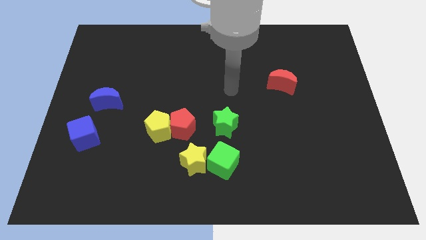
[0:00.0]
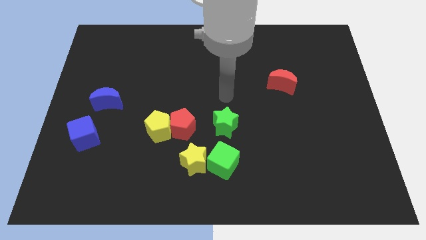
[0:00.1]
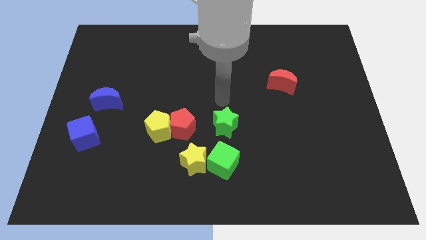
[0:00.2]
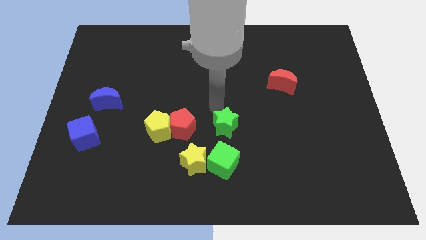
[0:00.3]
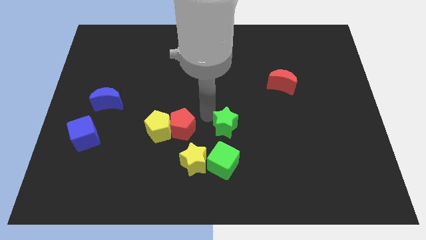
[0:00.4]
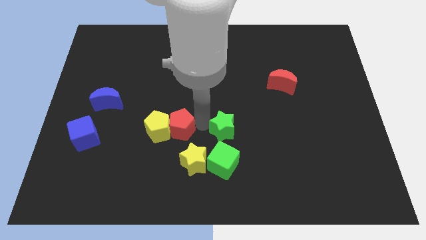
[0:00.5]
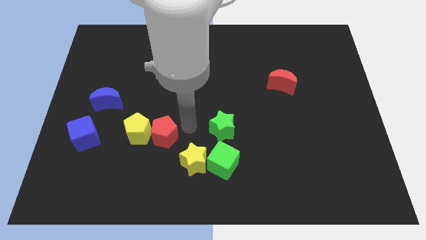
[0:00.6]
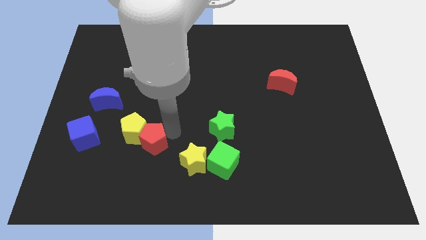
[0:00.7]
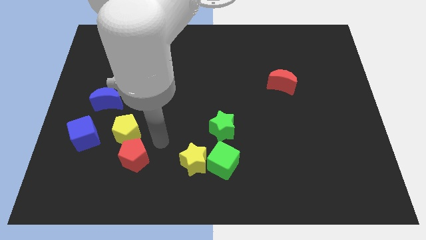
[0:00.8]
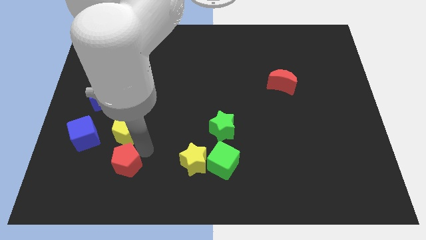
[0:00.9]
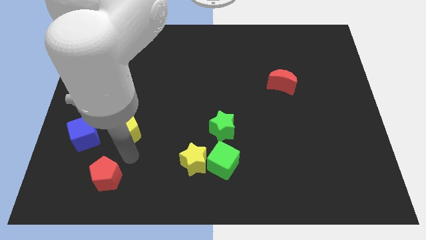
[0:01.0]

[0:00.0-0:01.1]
move the yellow pentagon away from the red pentagon

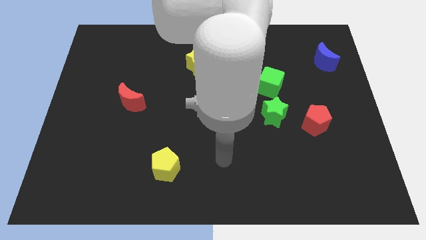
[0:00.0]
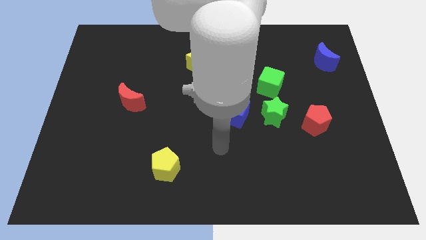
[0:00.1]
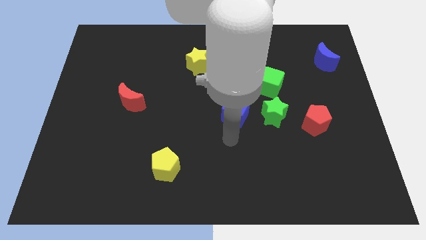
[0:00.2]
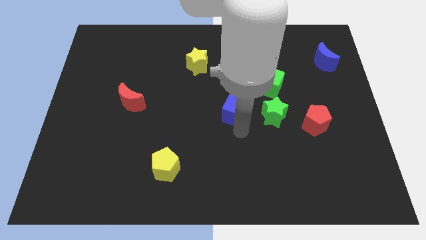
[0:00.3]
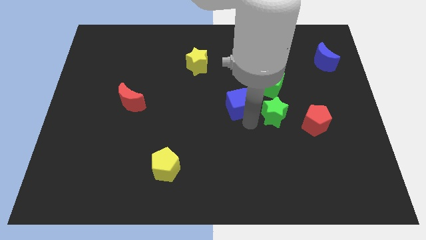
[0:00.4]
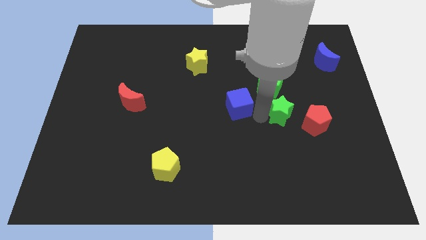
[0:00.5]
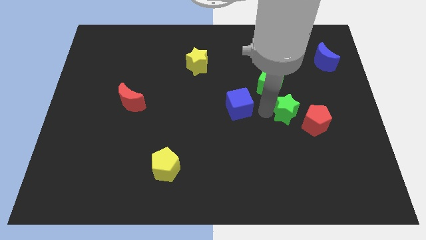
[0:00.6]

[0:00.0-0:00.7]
separate the blue cube from the green star

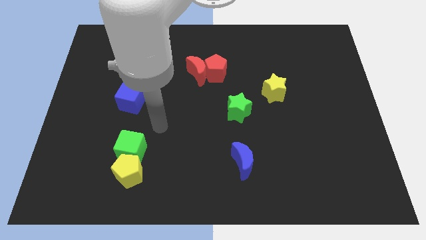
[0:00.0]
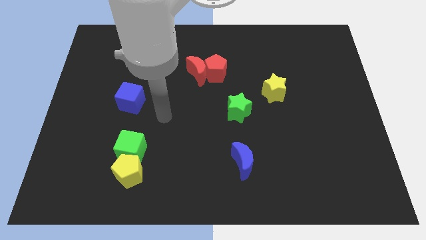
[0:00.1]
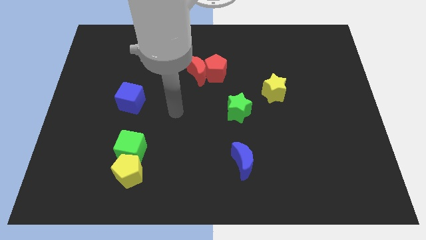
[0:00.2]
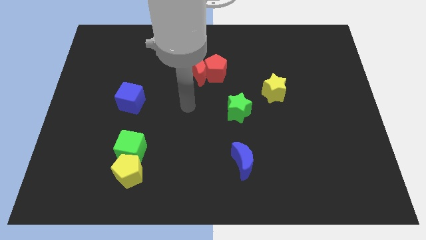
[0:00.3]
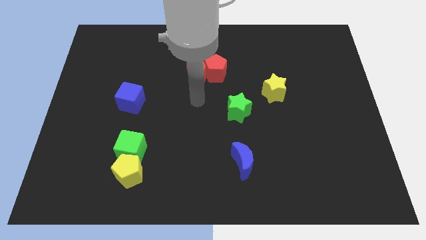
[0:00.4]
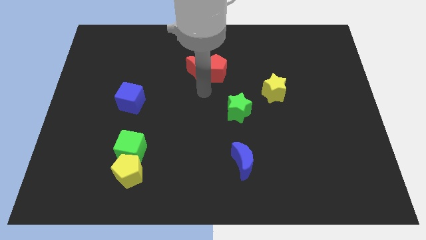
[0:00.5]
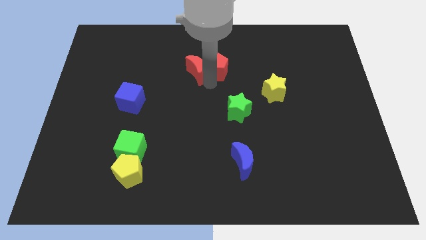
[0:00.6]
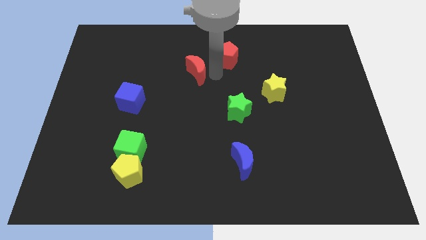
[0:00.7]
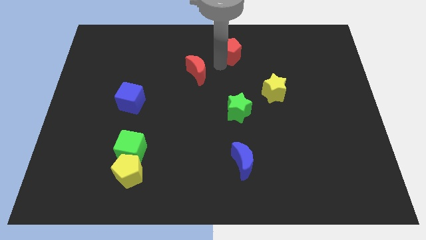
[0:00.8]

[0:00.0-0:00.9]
pull the red moon apart from the red pentagon

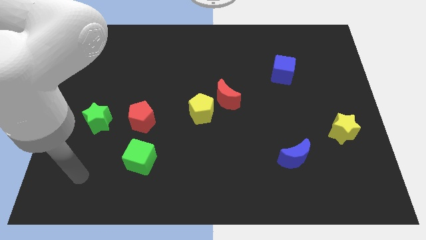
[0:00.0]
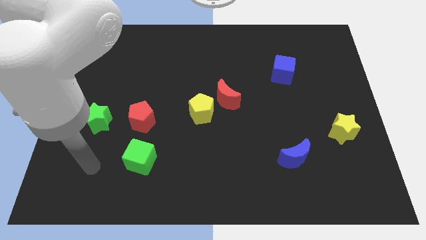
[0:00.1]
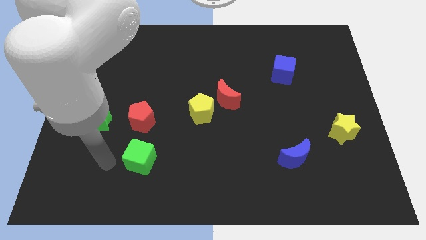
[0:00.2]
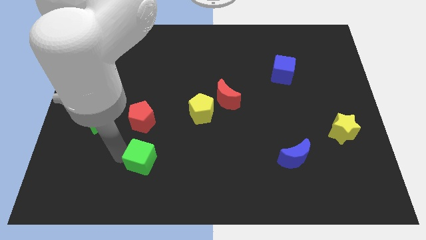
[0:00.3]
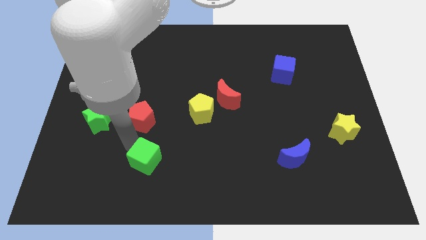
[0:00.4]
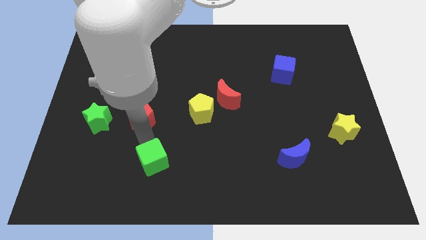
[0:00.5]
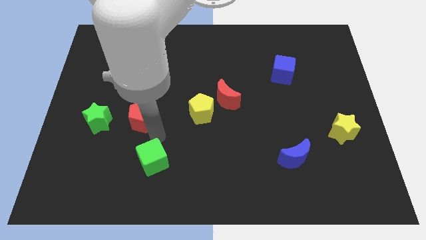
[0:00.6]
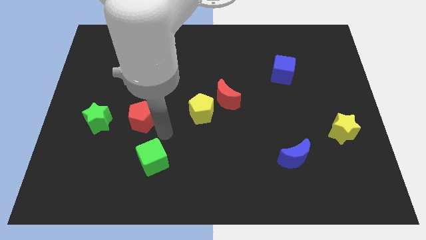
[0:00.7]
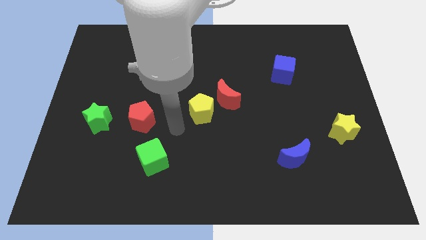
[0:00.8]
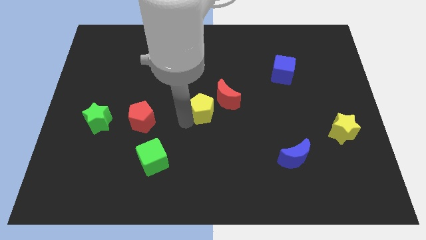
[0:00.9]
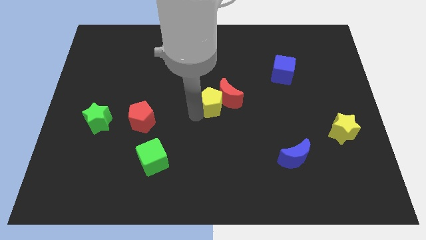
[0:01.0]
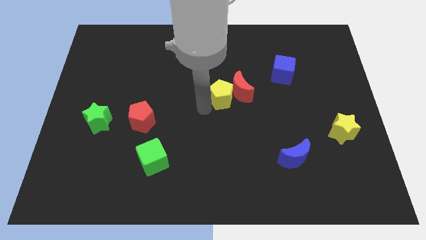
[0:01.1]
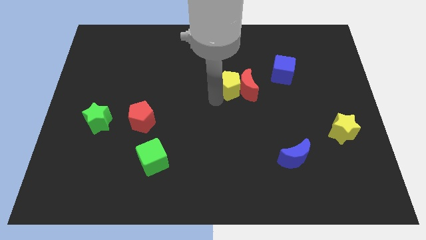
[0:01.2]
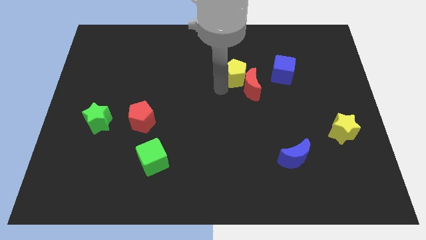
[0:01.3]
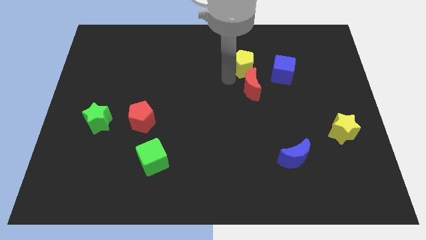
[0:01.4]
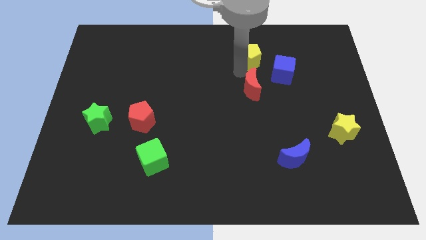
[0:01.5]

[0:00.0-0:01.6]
pull the red moon apart from the yellow pentagon

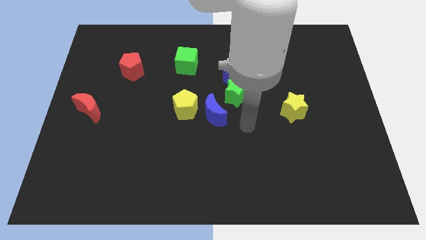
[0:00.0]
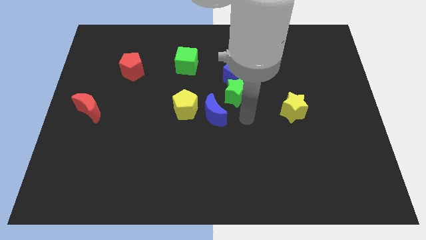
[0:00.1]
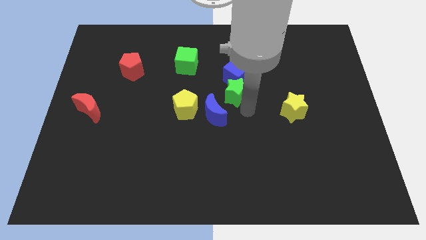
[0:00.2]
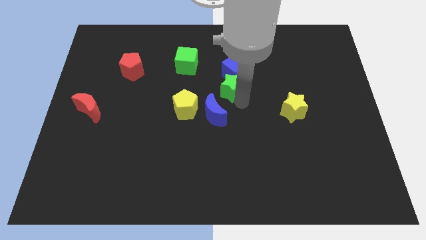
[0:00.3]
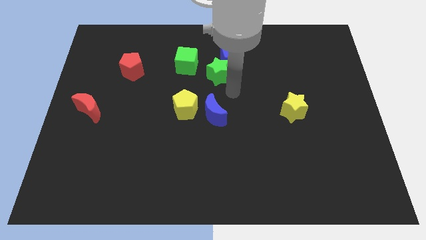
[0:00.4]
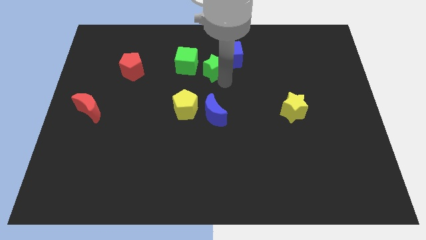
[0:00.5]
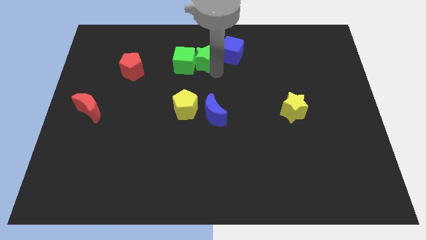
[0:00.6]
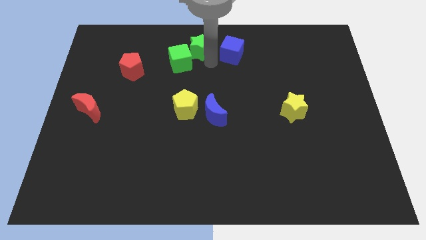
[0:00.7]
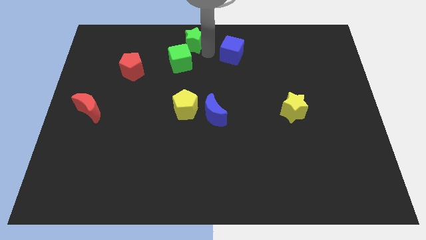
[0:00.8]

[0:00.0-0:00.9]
move the blue cube away from the green star

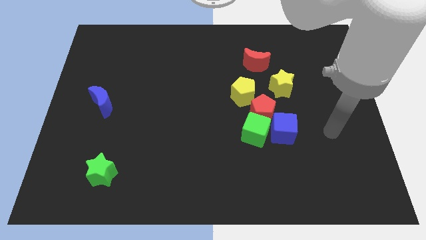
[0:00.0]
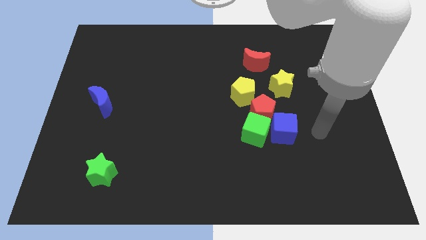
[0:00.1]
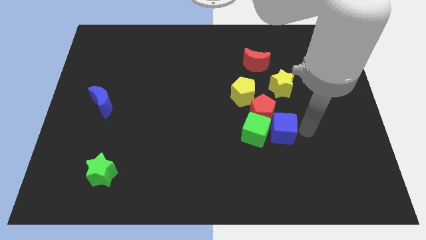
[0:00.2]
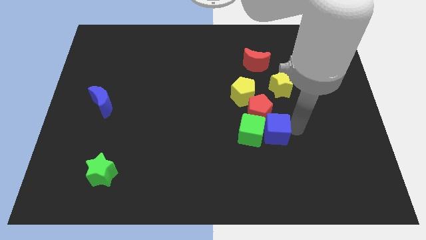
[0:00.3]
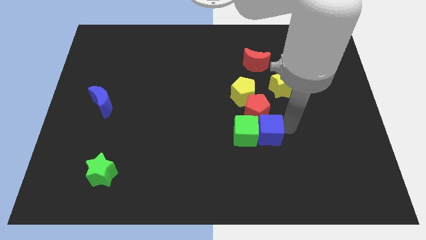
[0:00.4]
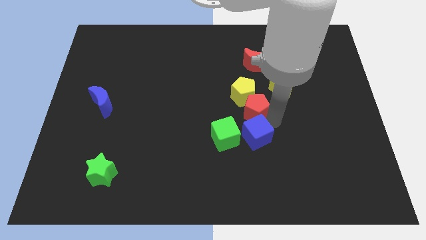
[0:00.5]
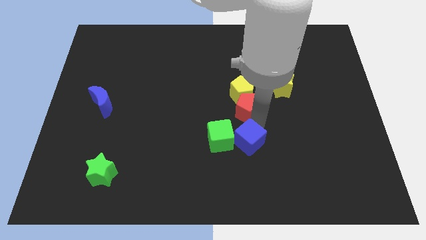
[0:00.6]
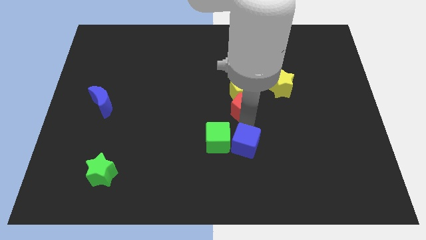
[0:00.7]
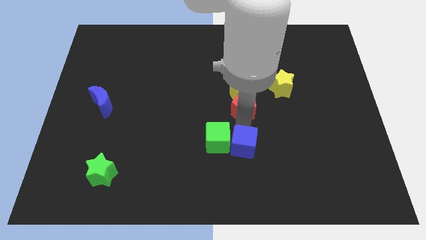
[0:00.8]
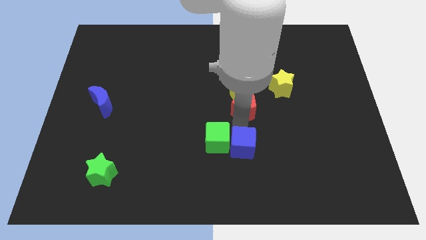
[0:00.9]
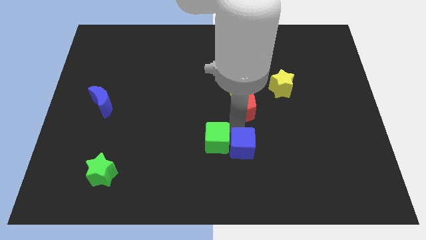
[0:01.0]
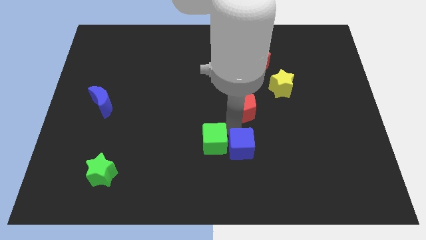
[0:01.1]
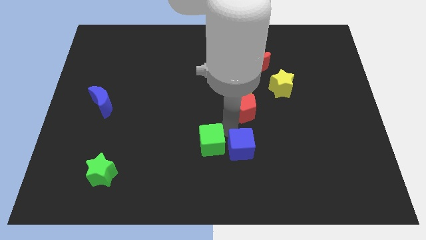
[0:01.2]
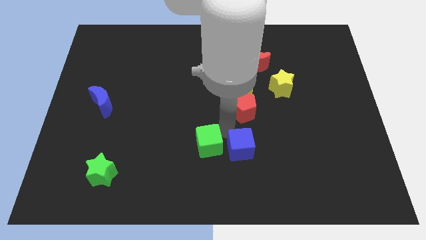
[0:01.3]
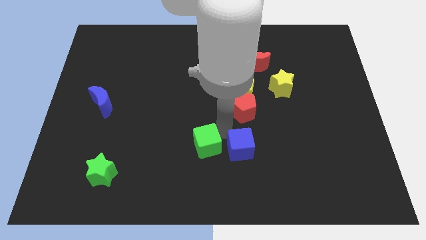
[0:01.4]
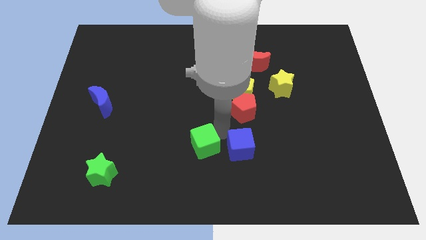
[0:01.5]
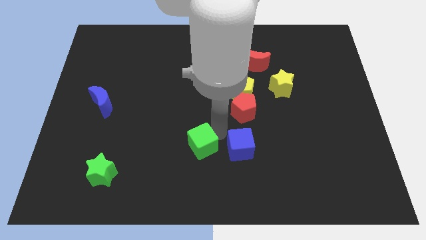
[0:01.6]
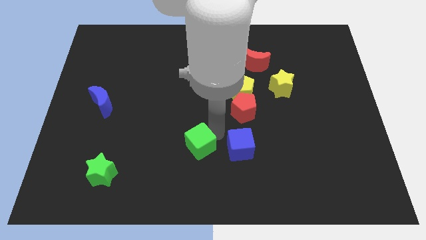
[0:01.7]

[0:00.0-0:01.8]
move the green cube away from the red pentagon and blue cube

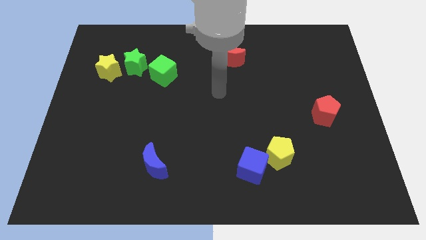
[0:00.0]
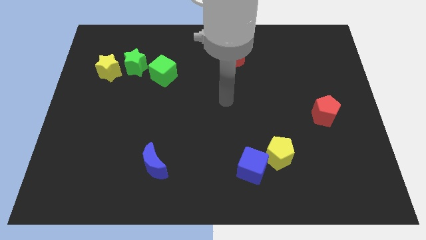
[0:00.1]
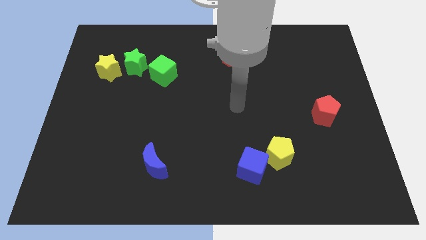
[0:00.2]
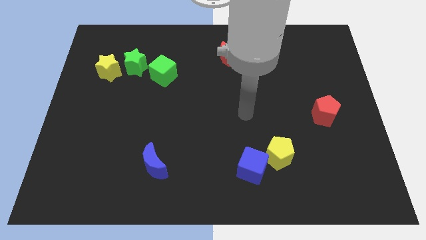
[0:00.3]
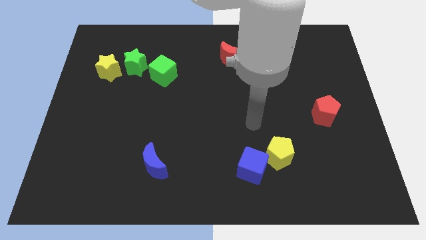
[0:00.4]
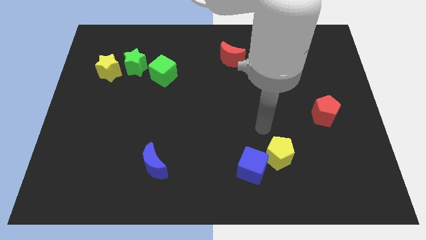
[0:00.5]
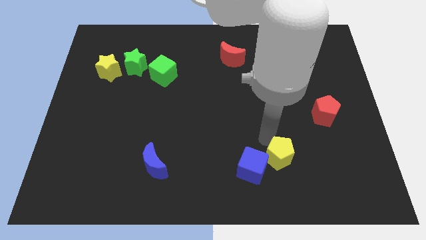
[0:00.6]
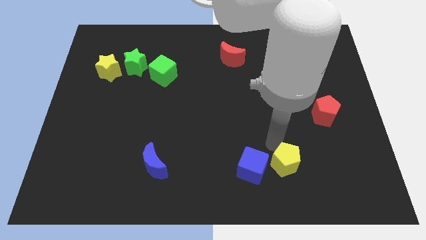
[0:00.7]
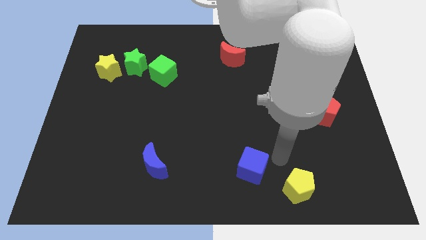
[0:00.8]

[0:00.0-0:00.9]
move the blue cube away from the yellow pentagon

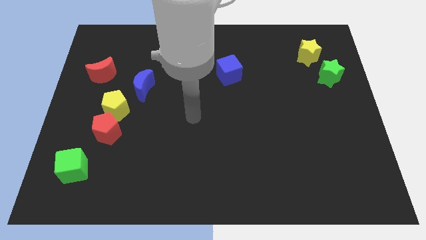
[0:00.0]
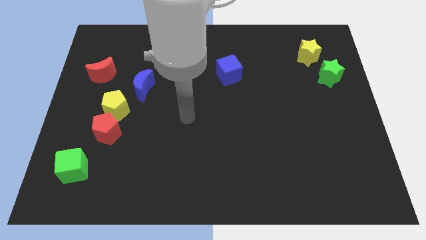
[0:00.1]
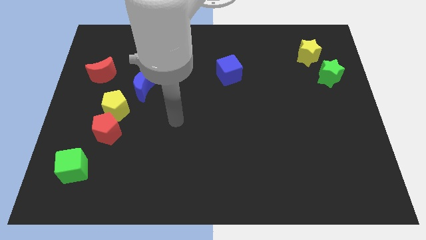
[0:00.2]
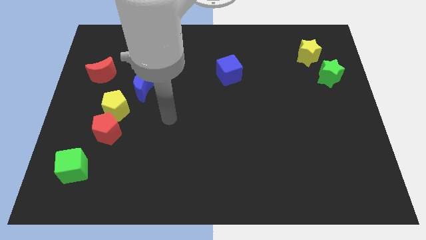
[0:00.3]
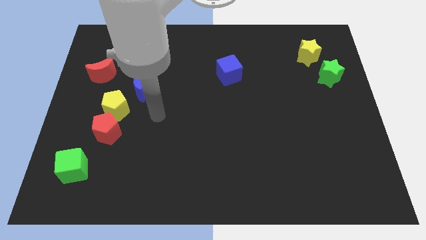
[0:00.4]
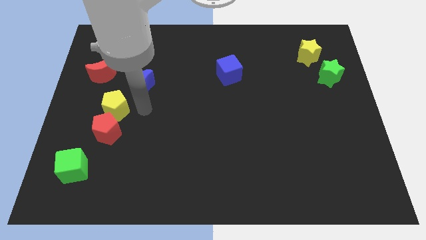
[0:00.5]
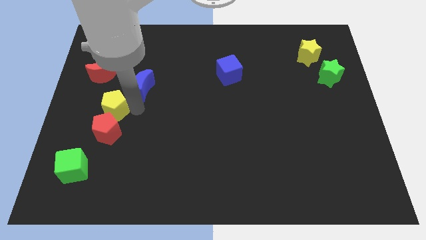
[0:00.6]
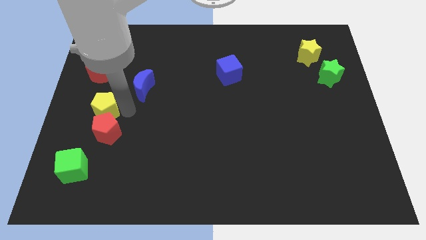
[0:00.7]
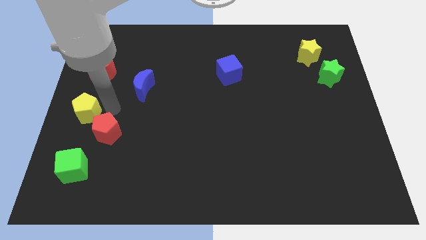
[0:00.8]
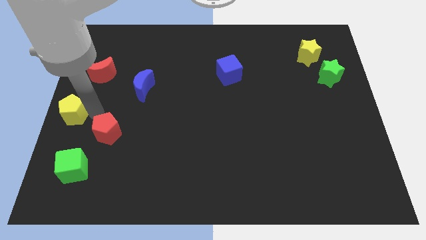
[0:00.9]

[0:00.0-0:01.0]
separate the red pentagon from the yellow pentagon

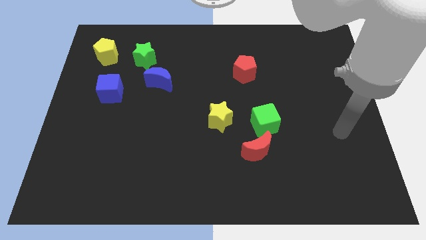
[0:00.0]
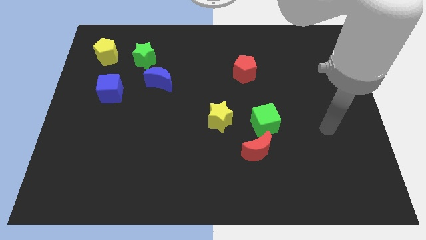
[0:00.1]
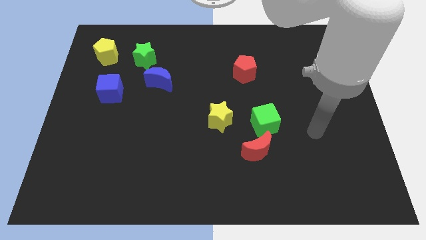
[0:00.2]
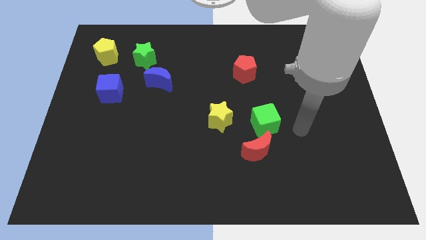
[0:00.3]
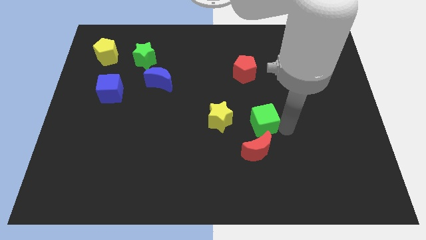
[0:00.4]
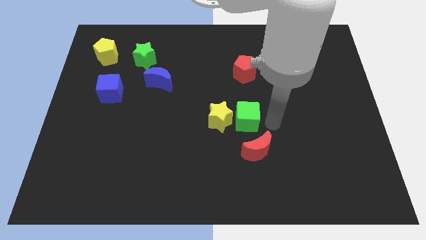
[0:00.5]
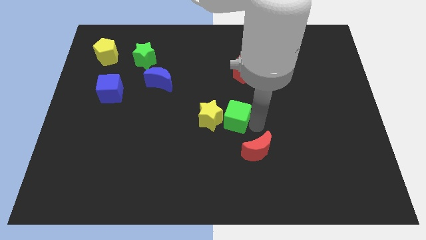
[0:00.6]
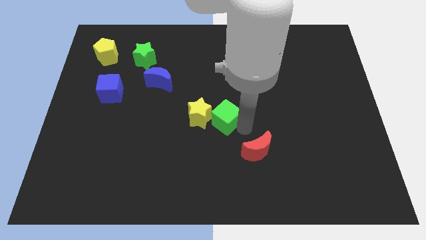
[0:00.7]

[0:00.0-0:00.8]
move the red moon away from the green cube
